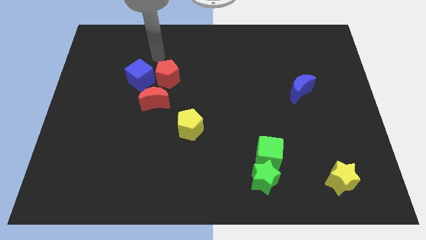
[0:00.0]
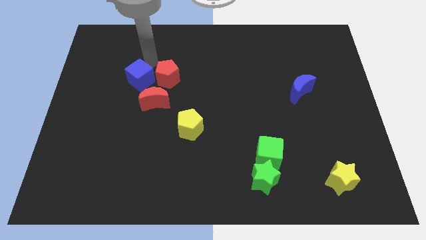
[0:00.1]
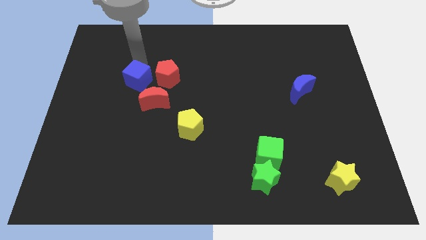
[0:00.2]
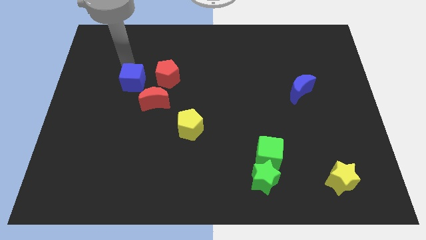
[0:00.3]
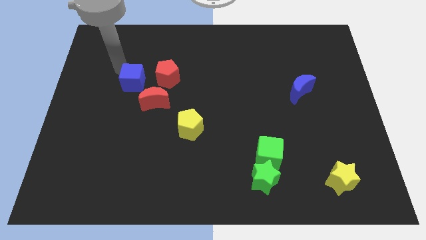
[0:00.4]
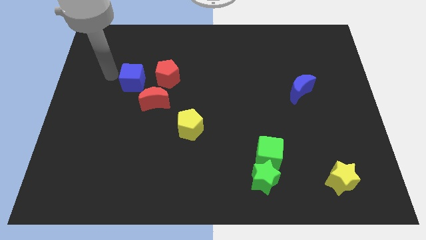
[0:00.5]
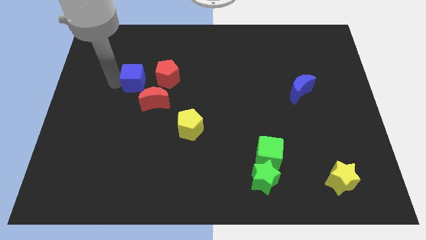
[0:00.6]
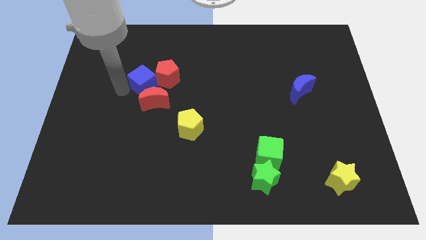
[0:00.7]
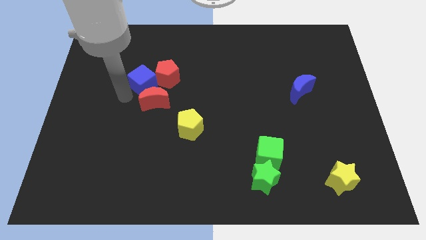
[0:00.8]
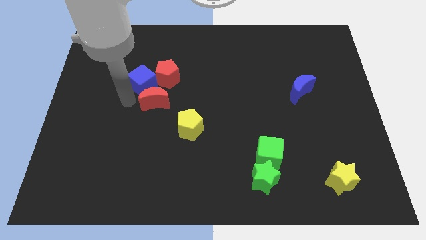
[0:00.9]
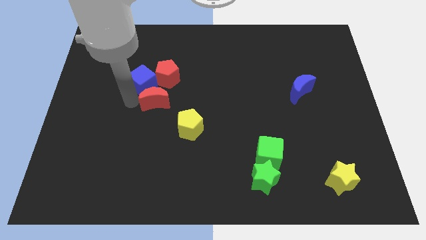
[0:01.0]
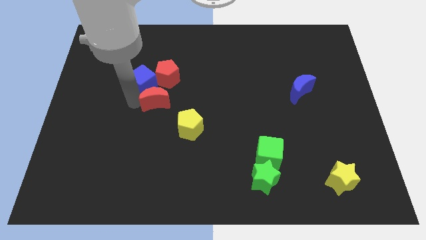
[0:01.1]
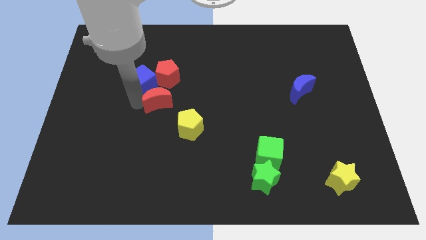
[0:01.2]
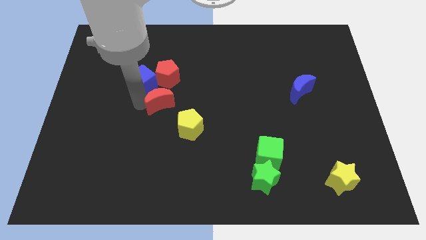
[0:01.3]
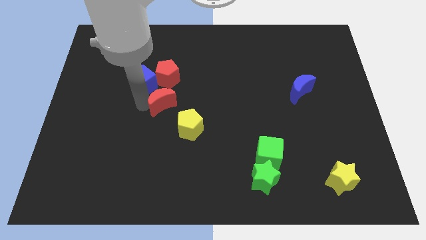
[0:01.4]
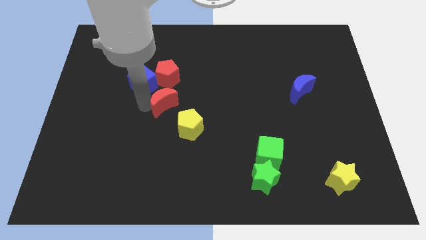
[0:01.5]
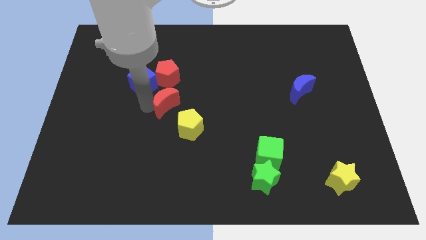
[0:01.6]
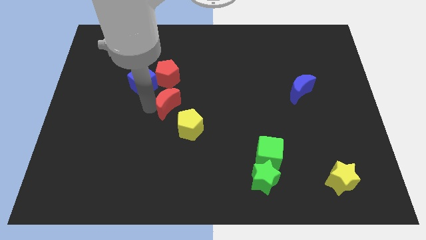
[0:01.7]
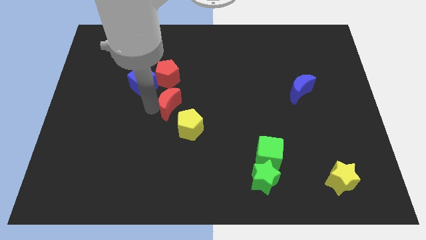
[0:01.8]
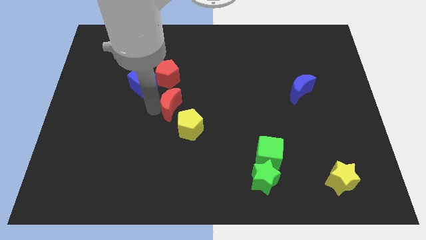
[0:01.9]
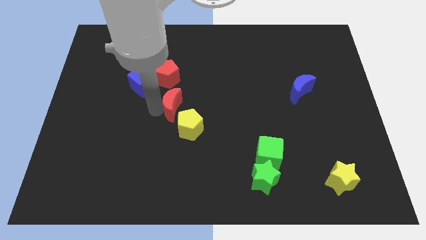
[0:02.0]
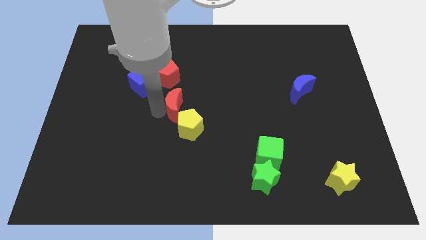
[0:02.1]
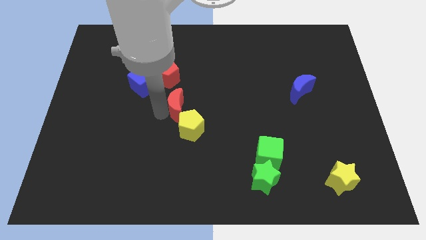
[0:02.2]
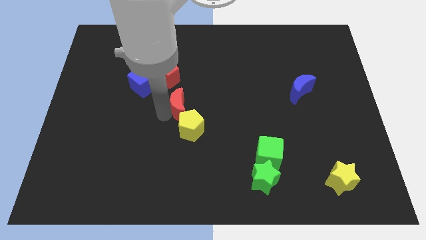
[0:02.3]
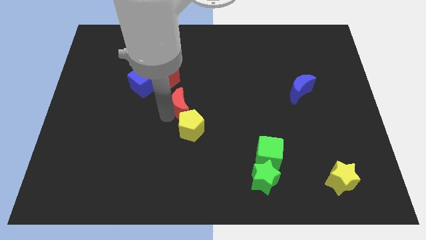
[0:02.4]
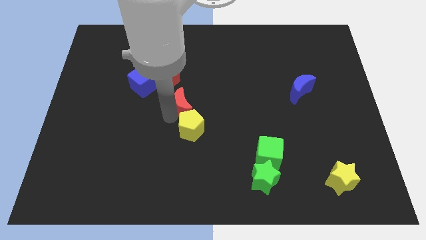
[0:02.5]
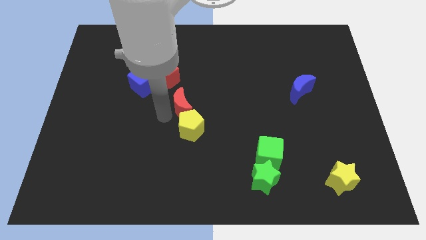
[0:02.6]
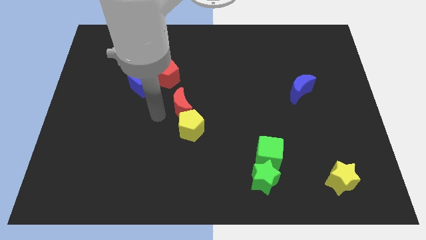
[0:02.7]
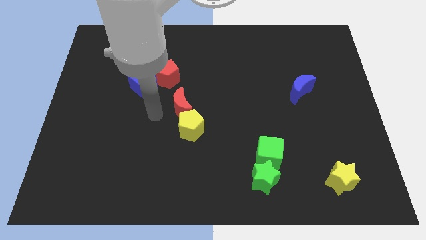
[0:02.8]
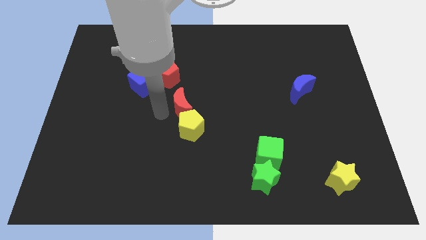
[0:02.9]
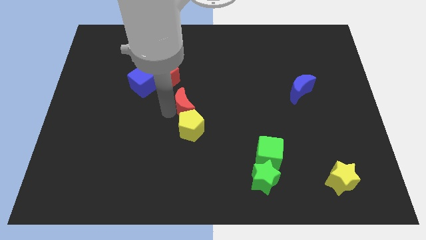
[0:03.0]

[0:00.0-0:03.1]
push the red moon a little right

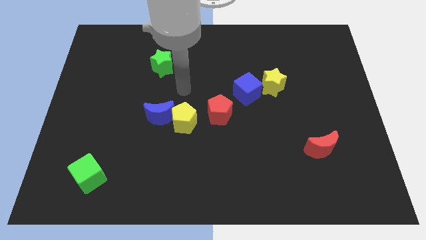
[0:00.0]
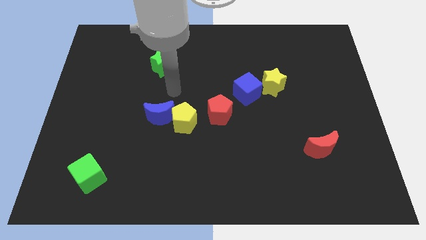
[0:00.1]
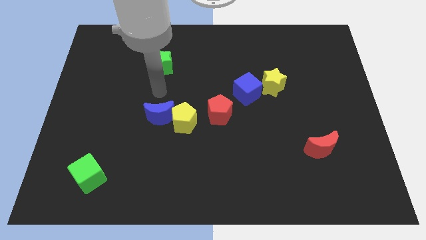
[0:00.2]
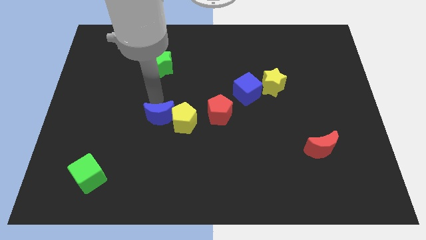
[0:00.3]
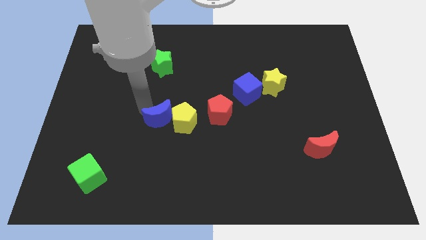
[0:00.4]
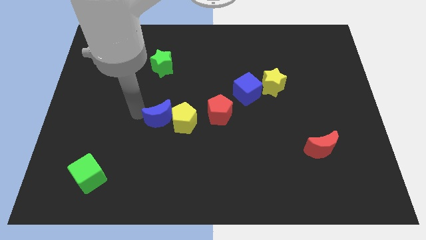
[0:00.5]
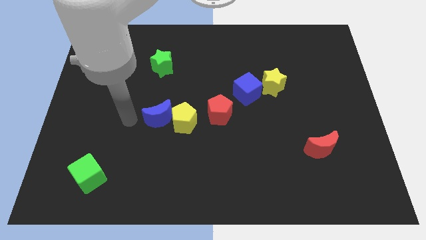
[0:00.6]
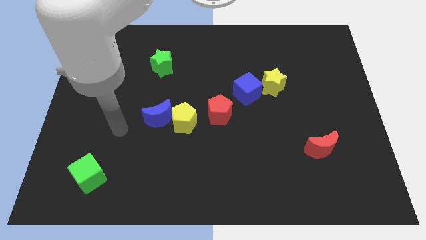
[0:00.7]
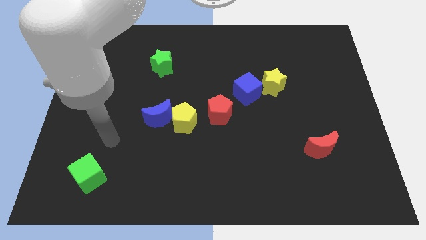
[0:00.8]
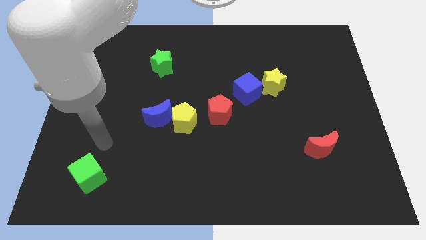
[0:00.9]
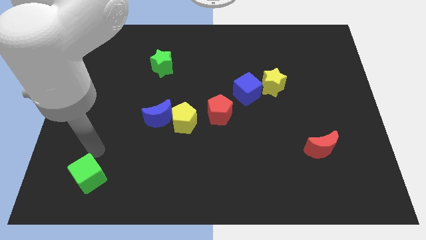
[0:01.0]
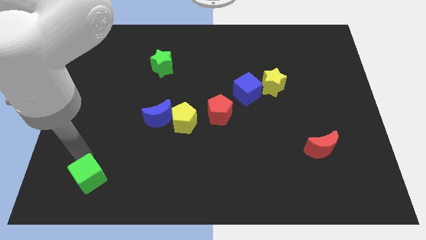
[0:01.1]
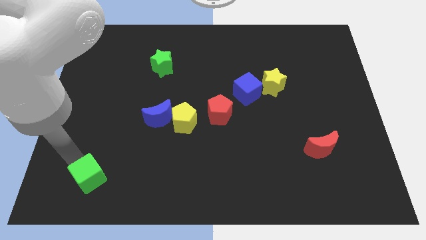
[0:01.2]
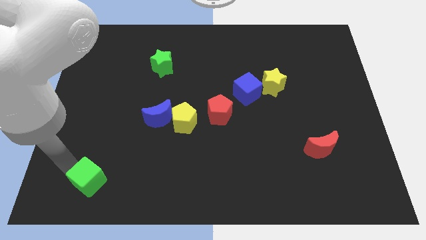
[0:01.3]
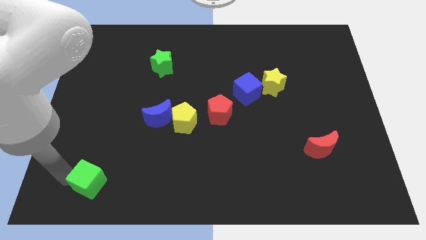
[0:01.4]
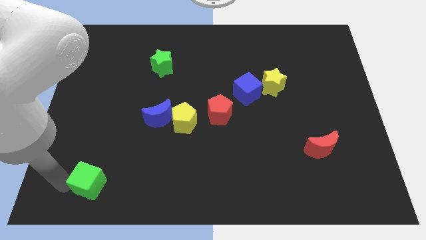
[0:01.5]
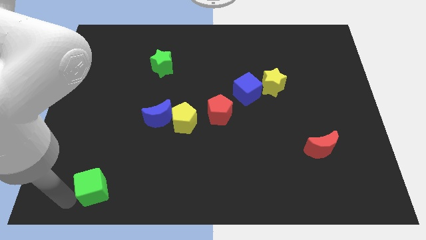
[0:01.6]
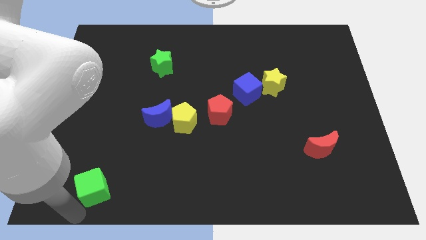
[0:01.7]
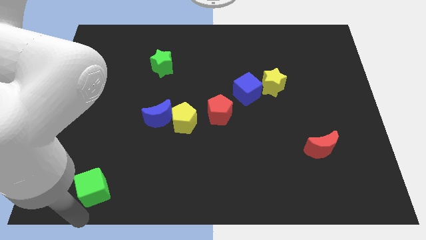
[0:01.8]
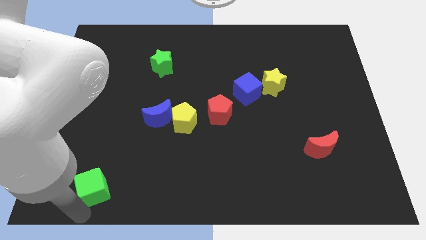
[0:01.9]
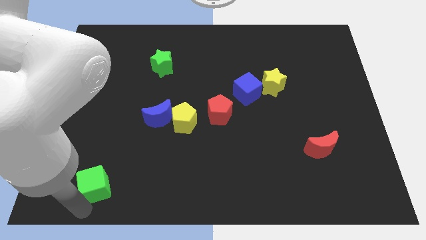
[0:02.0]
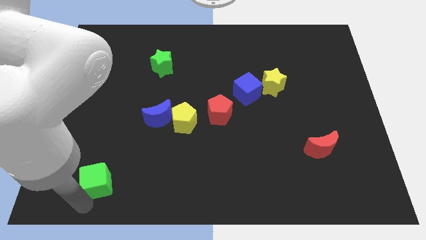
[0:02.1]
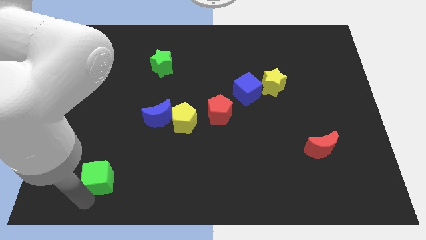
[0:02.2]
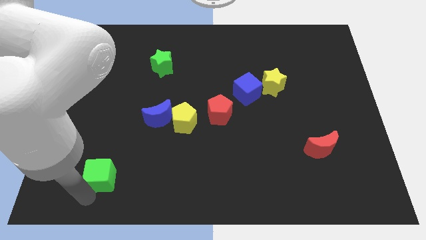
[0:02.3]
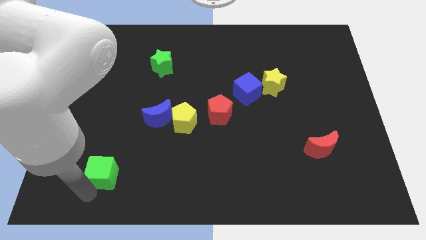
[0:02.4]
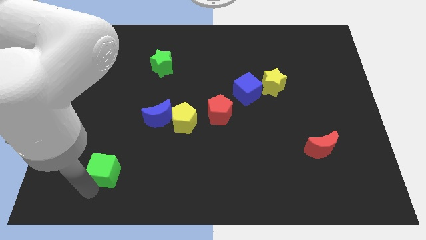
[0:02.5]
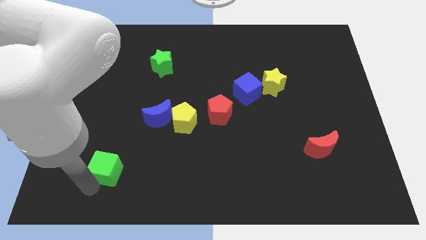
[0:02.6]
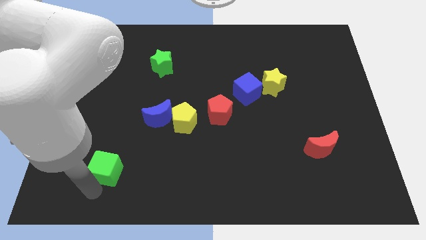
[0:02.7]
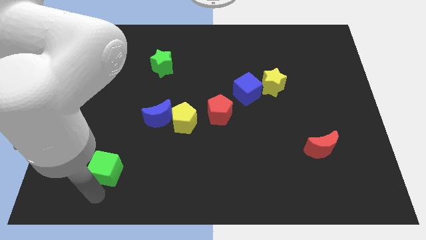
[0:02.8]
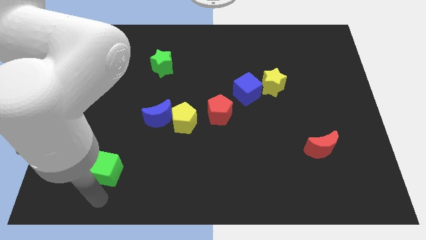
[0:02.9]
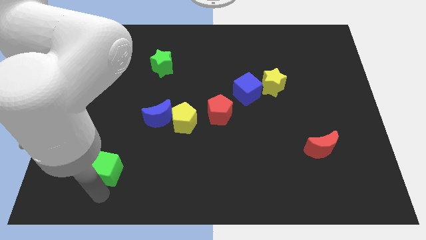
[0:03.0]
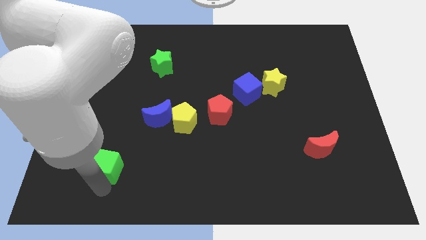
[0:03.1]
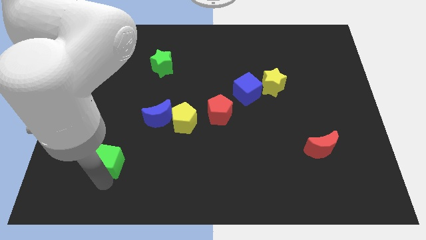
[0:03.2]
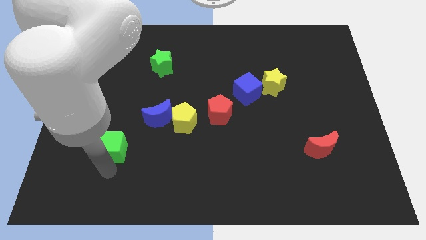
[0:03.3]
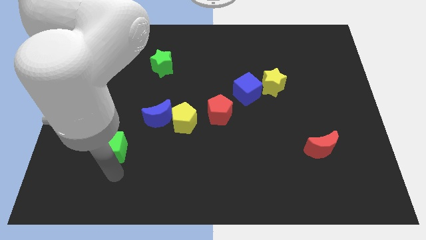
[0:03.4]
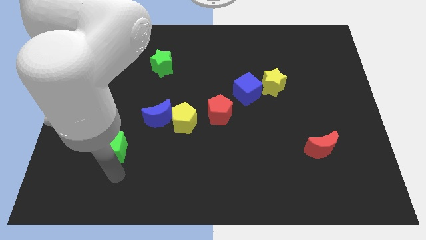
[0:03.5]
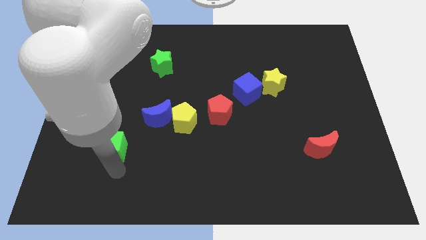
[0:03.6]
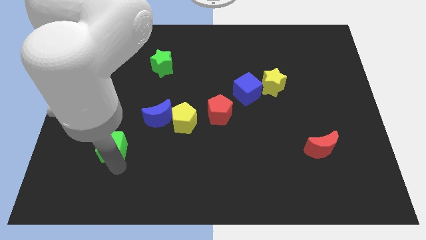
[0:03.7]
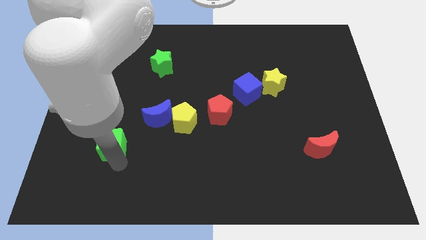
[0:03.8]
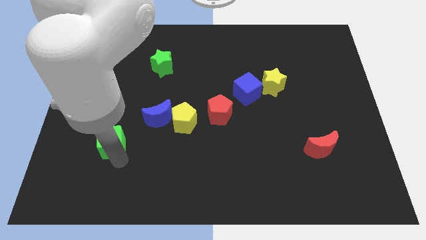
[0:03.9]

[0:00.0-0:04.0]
push the green cube up a little

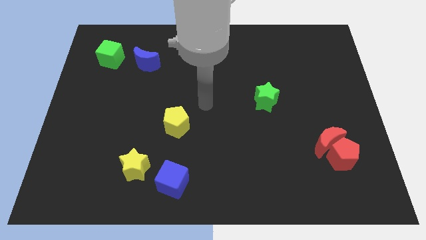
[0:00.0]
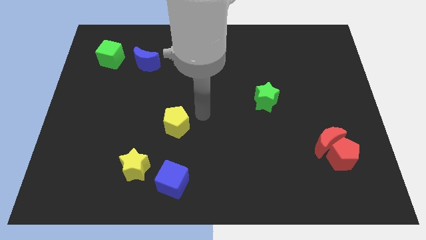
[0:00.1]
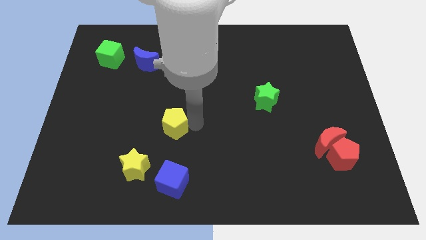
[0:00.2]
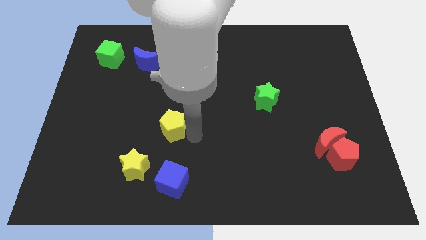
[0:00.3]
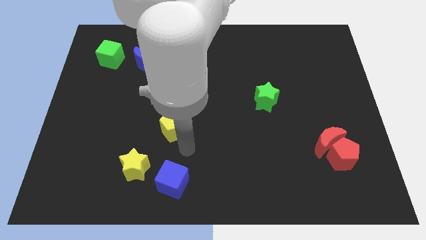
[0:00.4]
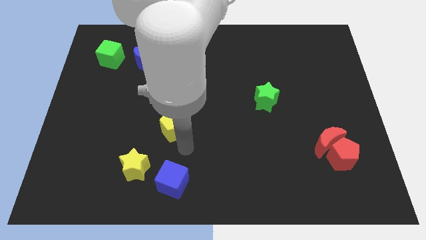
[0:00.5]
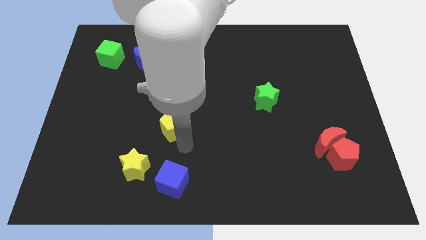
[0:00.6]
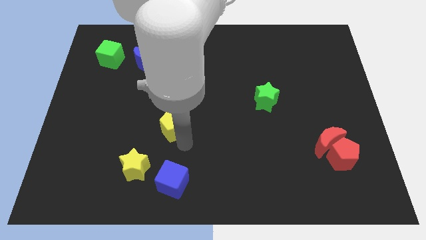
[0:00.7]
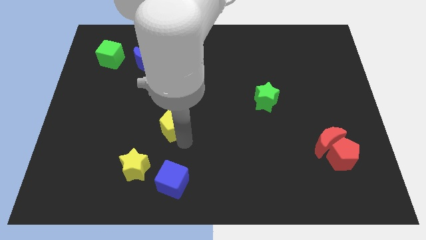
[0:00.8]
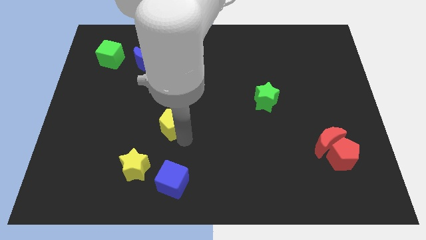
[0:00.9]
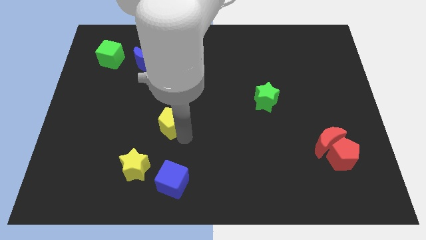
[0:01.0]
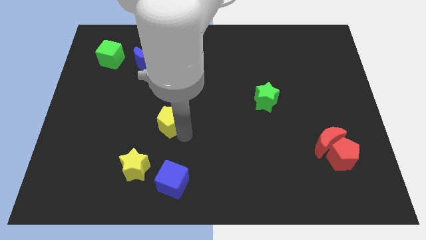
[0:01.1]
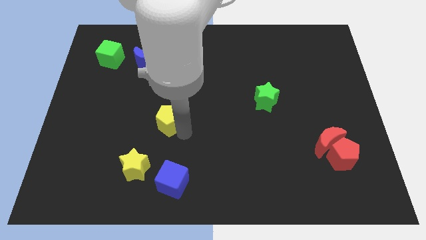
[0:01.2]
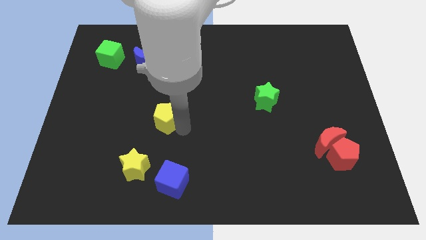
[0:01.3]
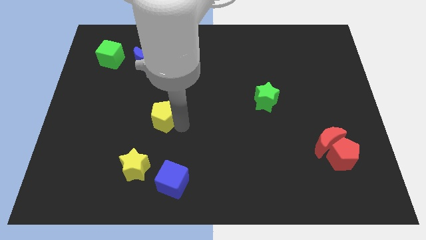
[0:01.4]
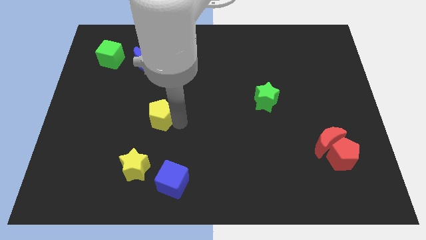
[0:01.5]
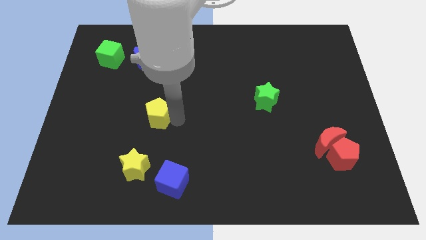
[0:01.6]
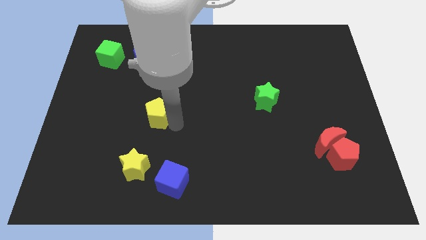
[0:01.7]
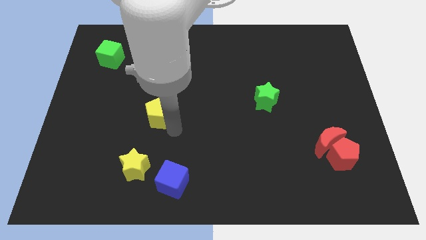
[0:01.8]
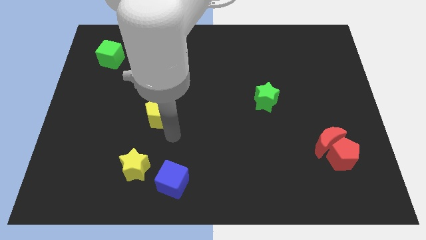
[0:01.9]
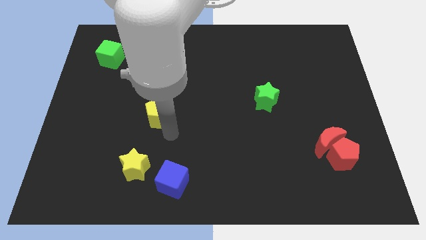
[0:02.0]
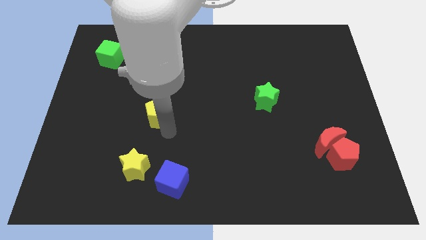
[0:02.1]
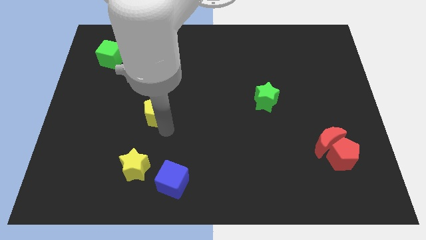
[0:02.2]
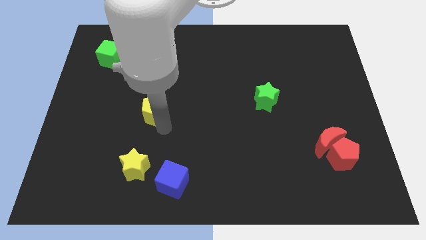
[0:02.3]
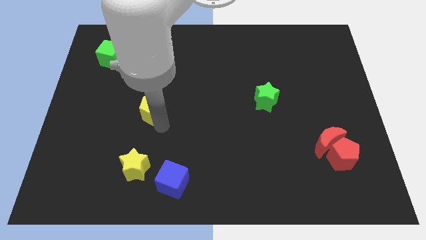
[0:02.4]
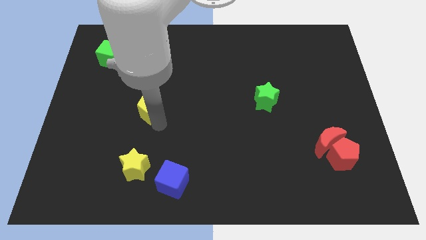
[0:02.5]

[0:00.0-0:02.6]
push the yellow pentagon slightly upwards and then to the left
